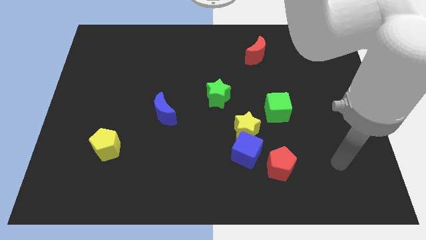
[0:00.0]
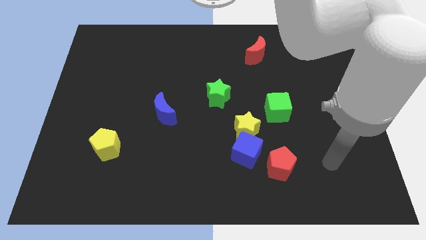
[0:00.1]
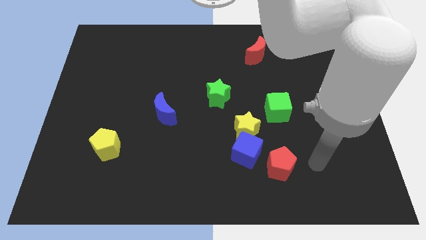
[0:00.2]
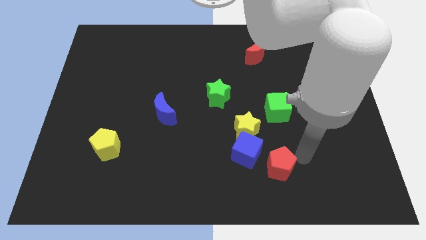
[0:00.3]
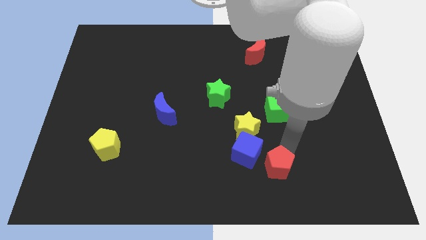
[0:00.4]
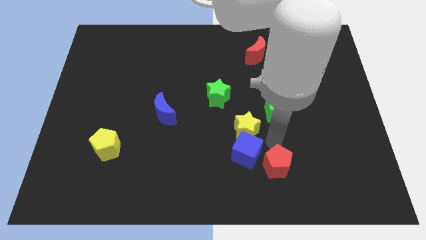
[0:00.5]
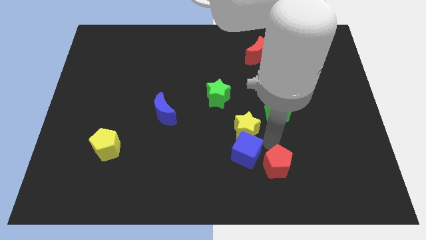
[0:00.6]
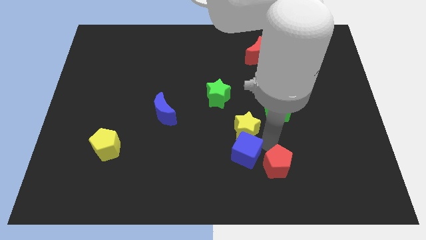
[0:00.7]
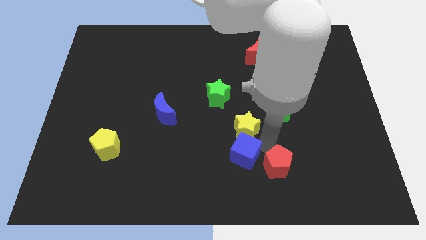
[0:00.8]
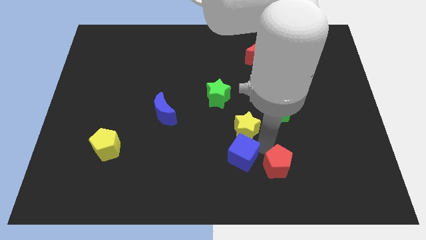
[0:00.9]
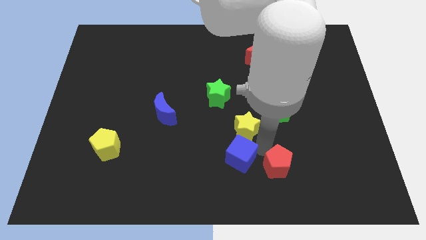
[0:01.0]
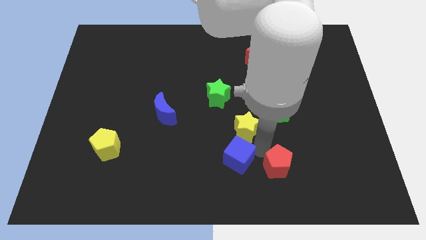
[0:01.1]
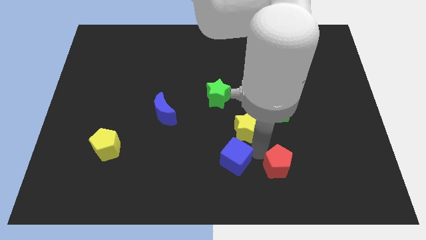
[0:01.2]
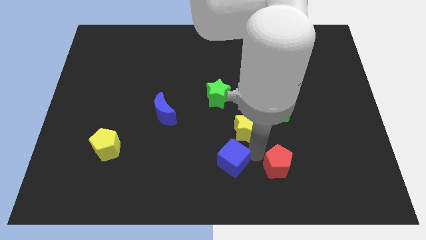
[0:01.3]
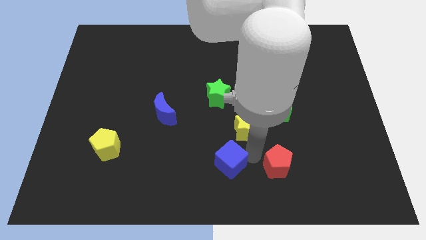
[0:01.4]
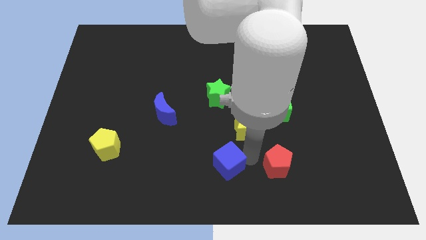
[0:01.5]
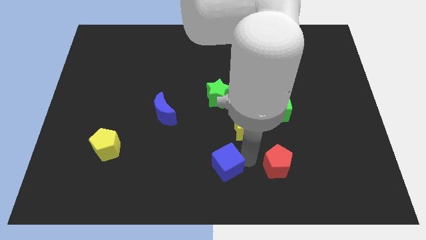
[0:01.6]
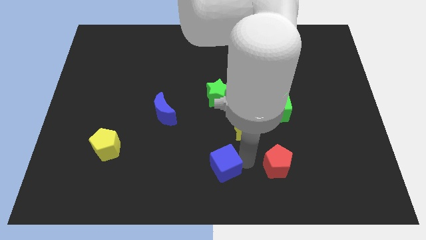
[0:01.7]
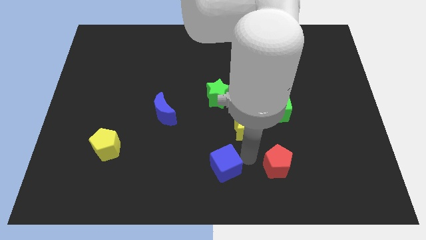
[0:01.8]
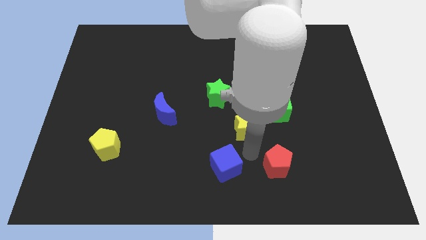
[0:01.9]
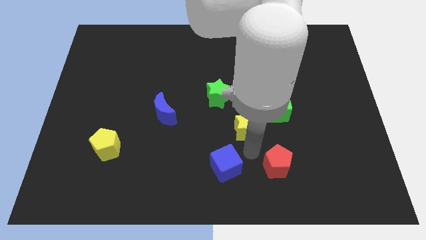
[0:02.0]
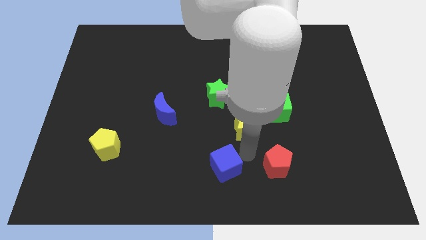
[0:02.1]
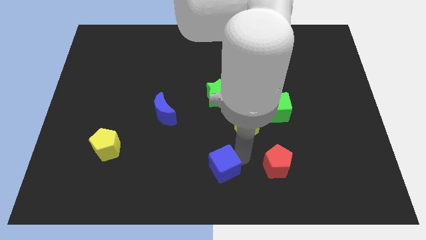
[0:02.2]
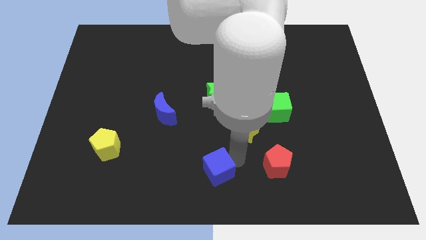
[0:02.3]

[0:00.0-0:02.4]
pull the blue cube apart from the yellow star and red pentagon

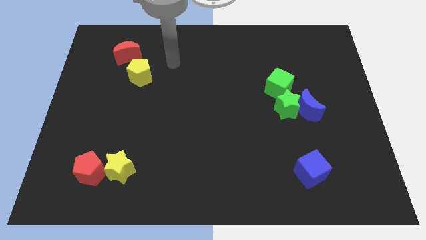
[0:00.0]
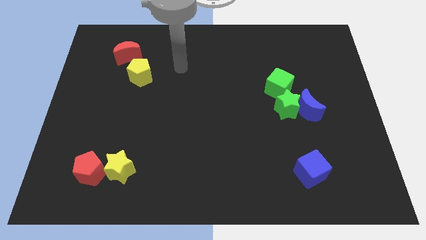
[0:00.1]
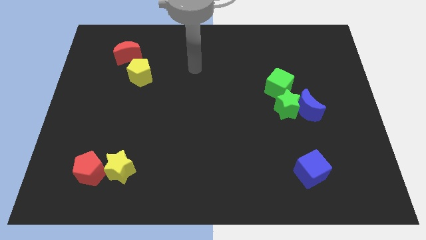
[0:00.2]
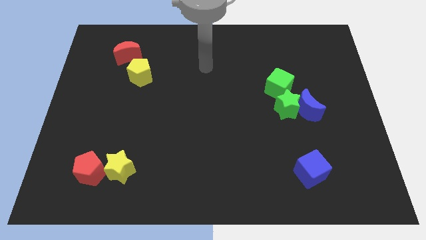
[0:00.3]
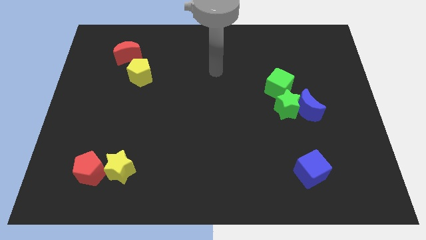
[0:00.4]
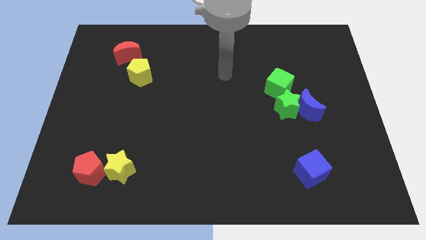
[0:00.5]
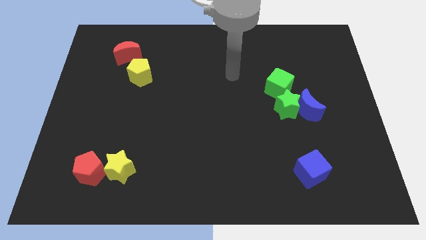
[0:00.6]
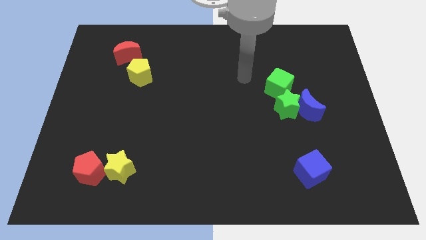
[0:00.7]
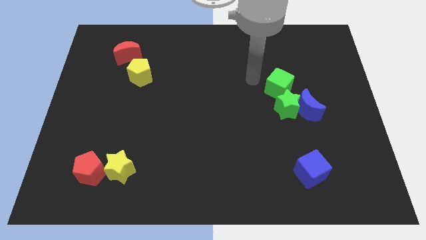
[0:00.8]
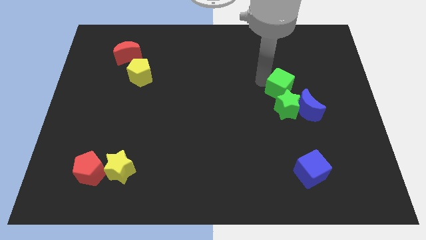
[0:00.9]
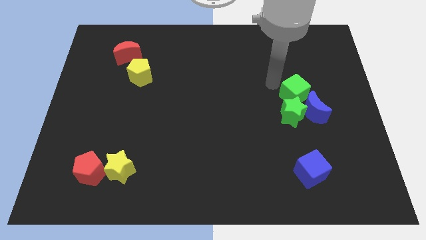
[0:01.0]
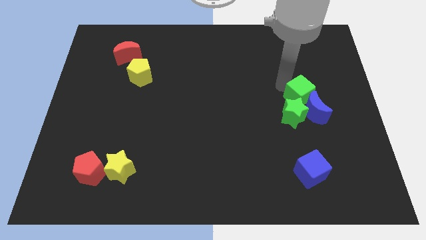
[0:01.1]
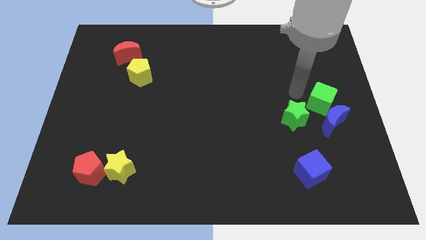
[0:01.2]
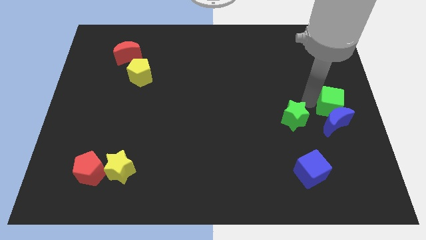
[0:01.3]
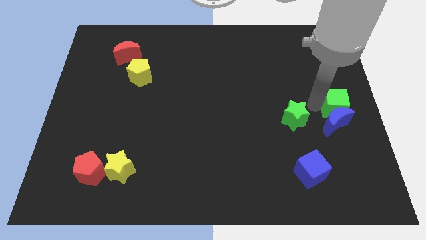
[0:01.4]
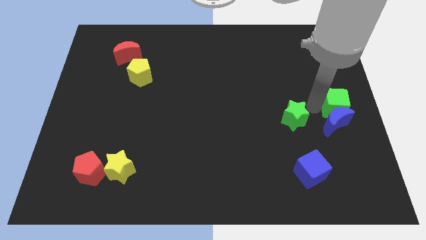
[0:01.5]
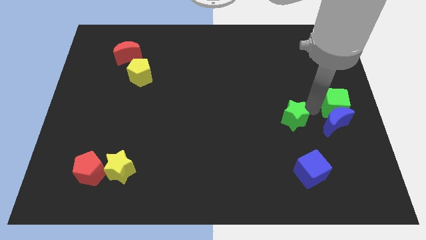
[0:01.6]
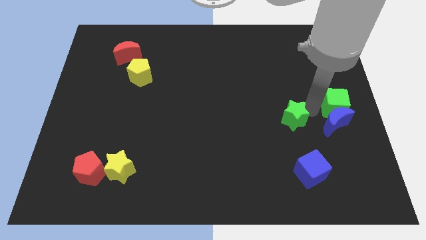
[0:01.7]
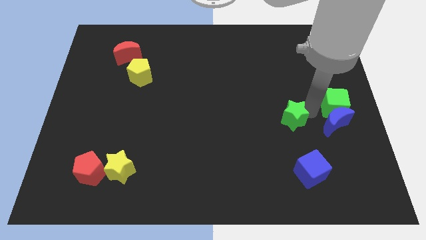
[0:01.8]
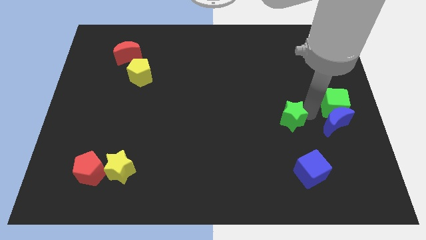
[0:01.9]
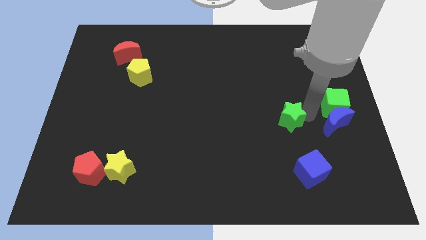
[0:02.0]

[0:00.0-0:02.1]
separate the green star from the blue moon and green cube

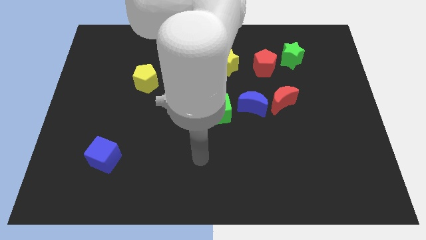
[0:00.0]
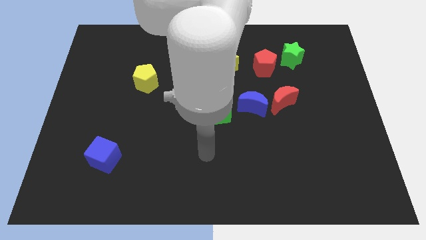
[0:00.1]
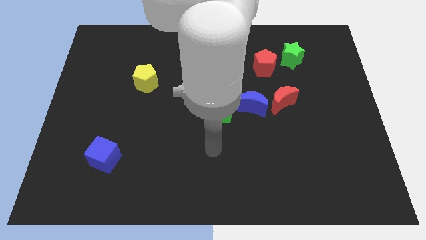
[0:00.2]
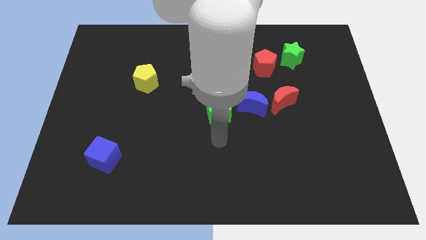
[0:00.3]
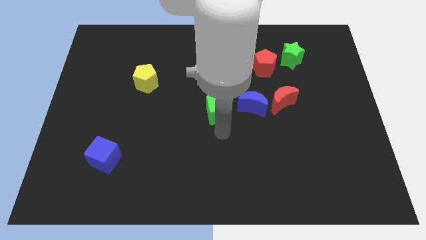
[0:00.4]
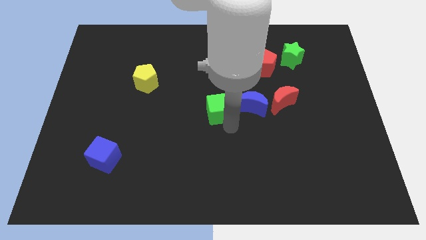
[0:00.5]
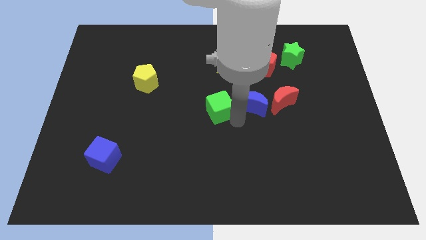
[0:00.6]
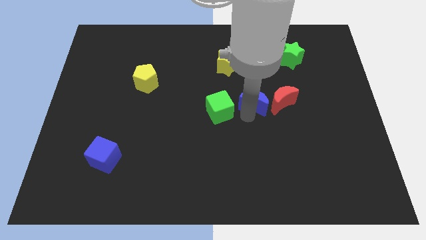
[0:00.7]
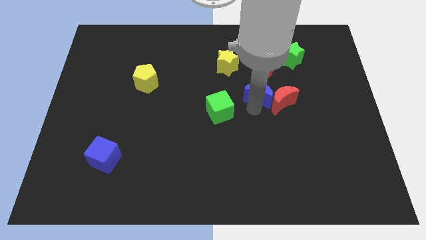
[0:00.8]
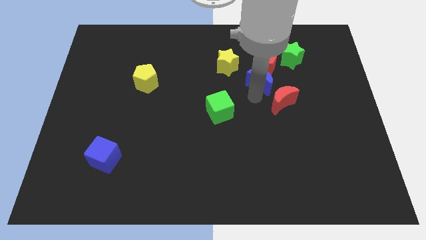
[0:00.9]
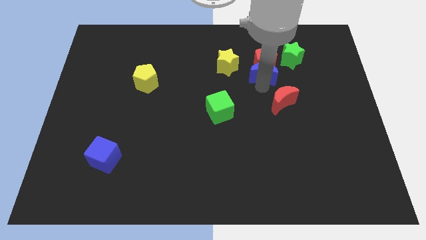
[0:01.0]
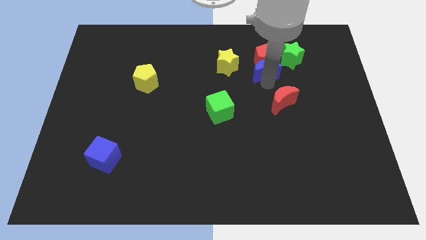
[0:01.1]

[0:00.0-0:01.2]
move the red moon away from the blue moon

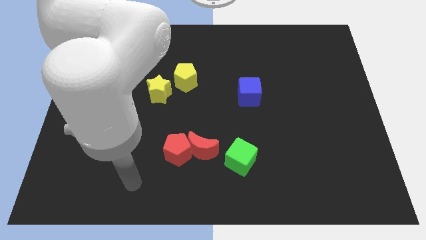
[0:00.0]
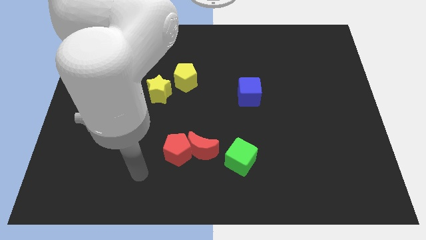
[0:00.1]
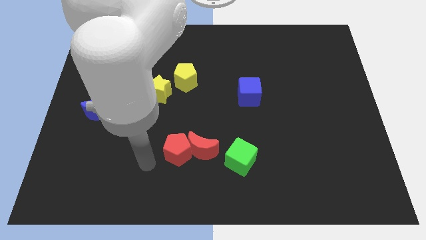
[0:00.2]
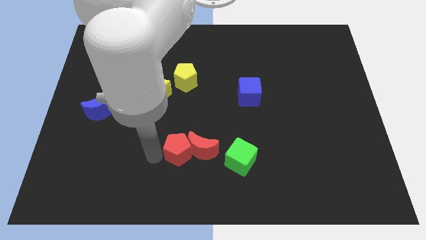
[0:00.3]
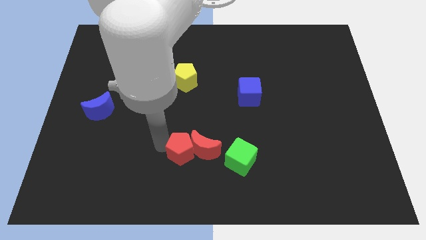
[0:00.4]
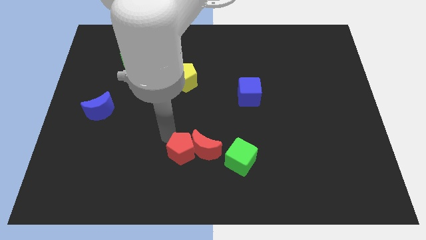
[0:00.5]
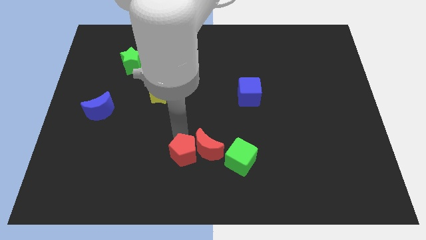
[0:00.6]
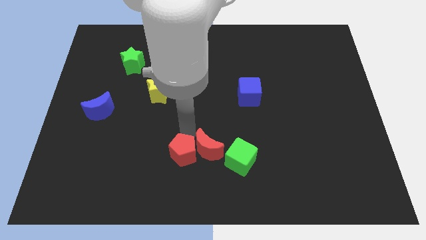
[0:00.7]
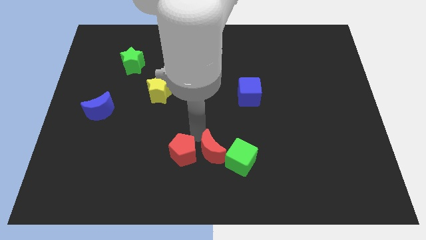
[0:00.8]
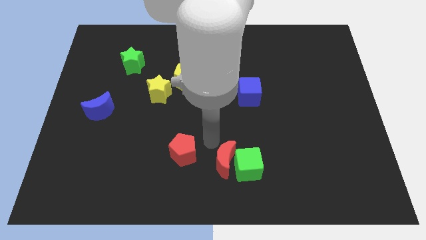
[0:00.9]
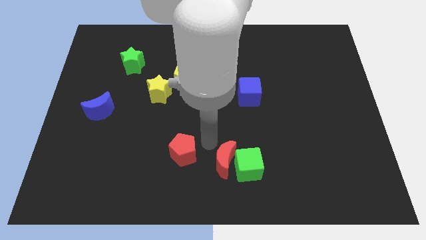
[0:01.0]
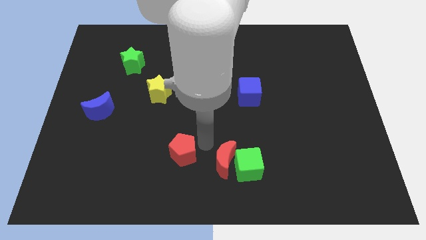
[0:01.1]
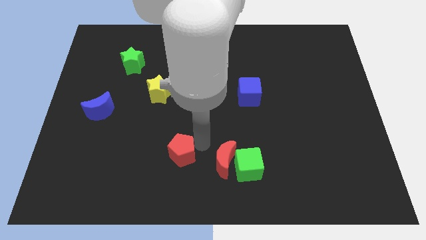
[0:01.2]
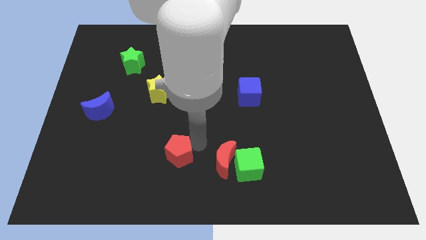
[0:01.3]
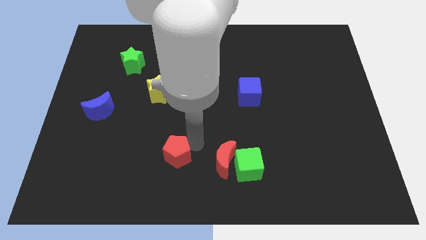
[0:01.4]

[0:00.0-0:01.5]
move the red pentagon away from the red moon

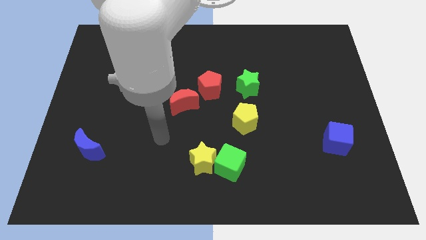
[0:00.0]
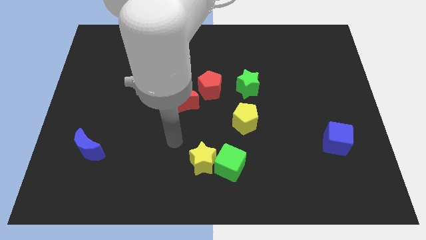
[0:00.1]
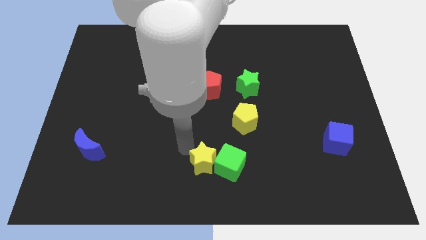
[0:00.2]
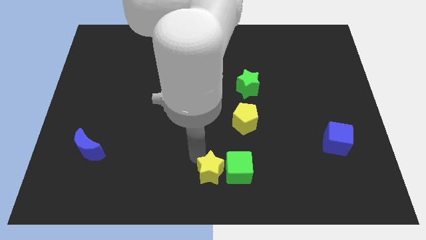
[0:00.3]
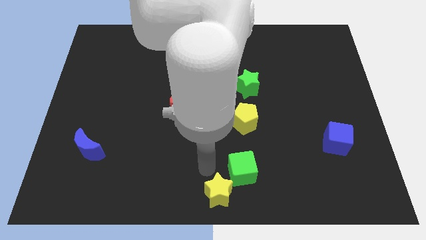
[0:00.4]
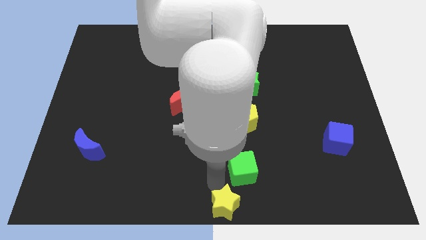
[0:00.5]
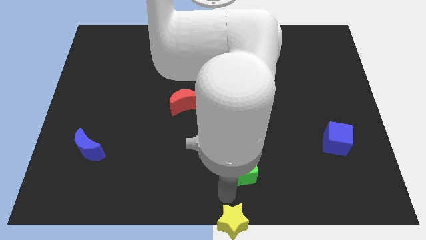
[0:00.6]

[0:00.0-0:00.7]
pull the green cube apart from the yellow star

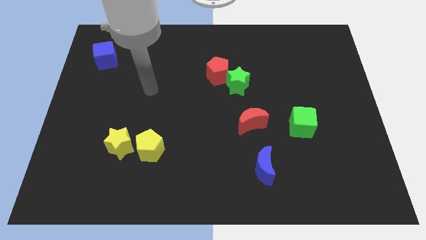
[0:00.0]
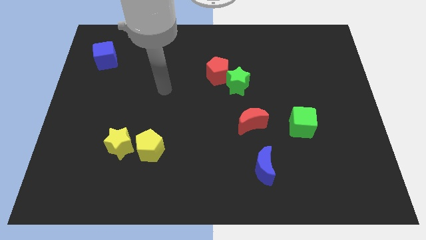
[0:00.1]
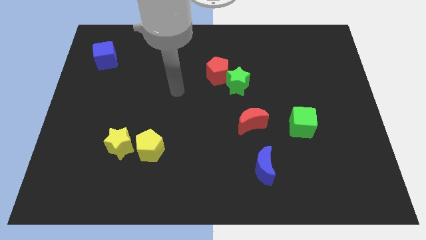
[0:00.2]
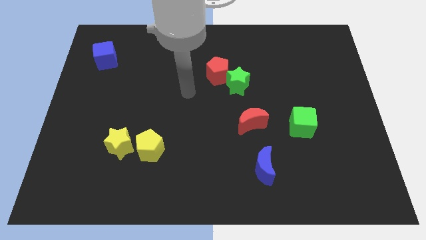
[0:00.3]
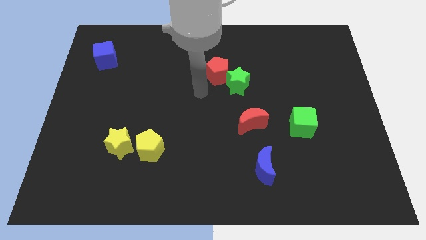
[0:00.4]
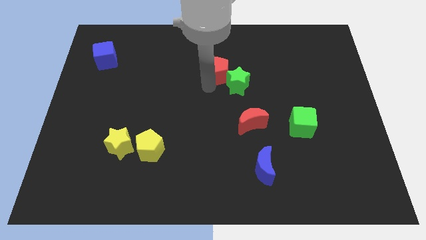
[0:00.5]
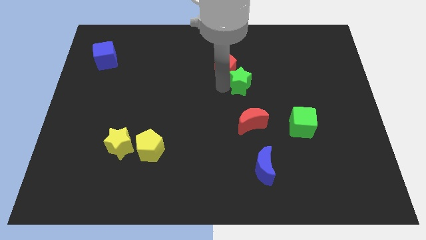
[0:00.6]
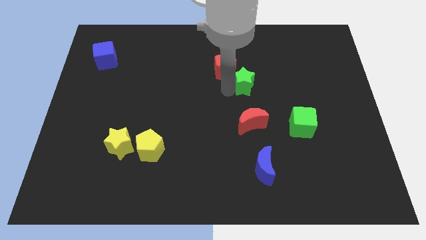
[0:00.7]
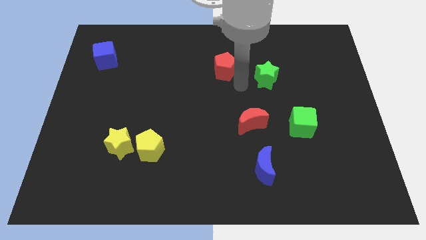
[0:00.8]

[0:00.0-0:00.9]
pull the red pentagon apart from the green star

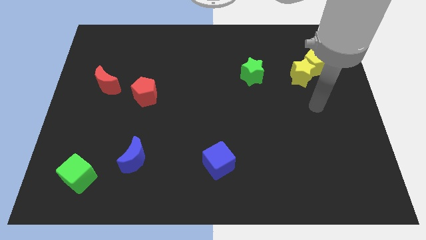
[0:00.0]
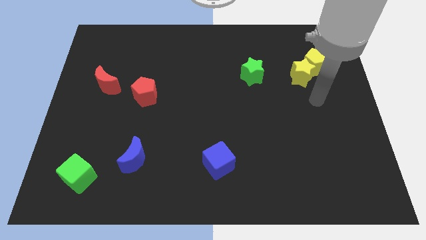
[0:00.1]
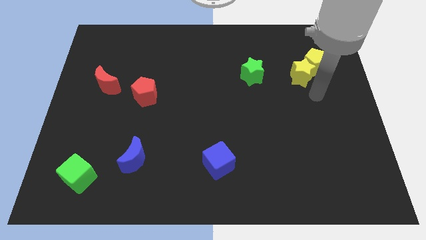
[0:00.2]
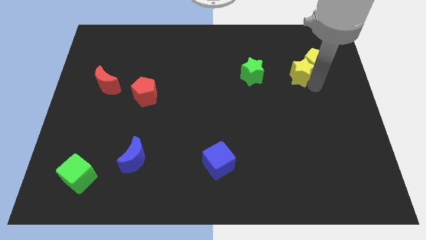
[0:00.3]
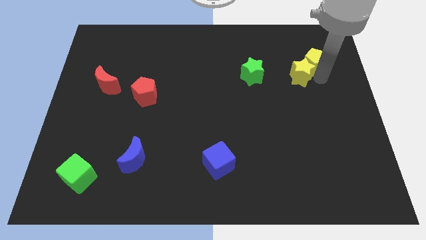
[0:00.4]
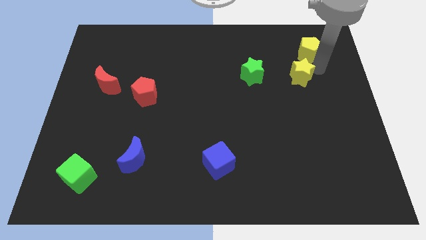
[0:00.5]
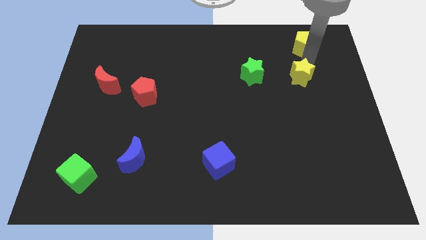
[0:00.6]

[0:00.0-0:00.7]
move the yellow star away from the yellow pentagon
